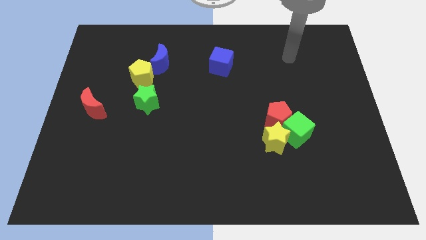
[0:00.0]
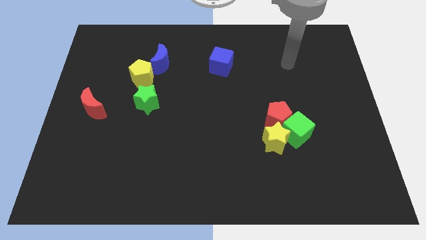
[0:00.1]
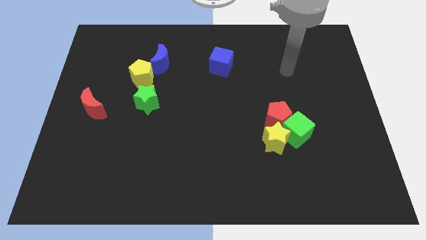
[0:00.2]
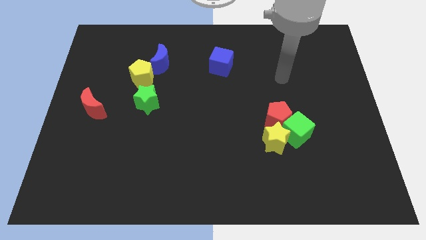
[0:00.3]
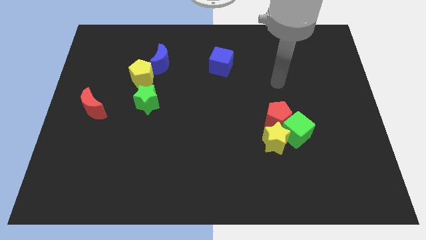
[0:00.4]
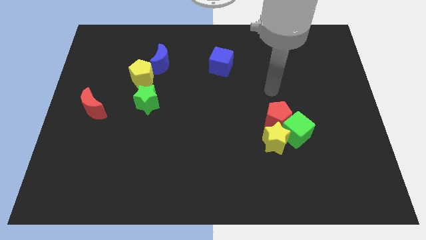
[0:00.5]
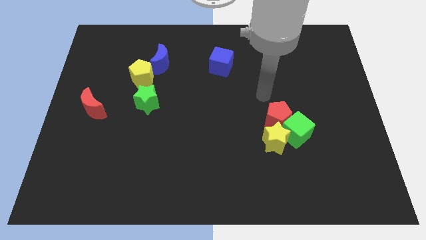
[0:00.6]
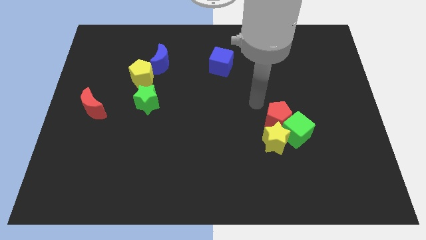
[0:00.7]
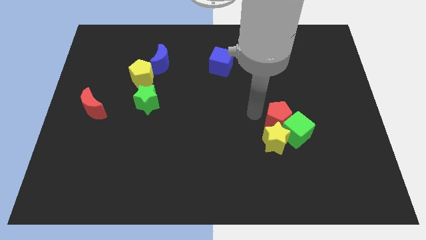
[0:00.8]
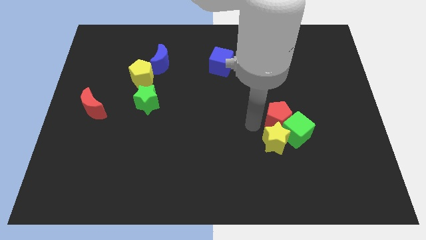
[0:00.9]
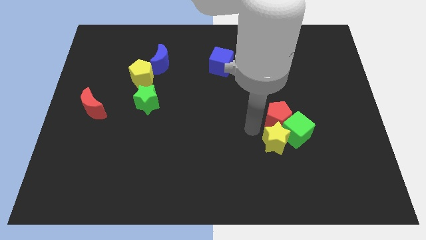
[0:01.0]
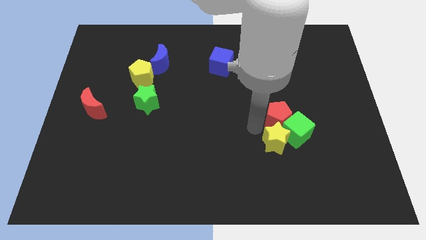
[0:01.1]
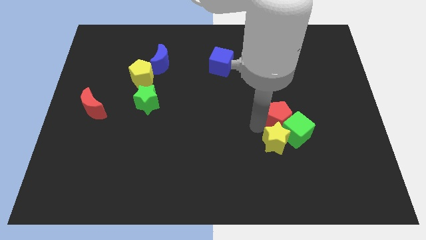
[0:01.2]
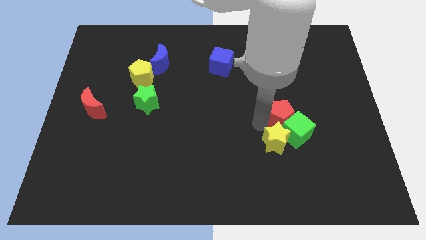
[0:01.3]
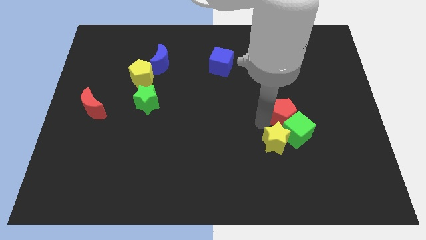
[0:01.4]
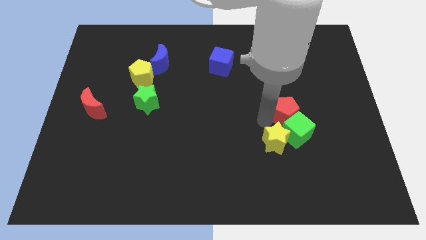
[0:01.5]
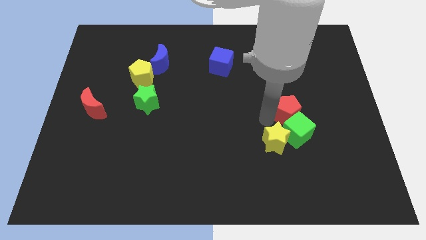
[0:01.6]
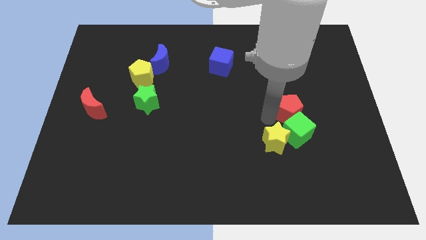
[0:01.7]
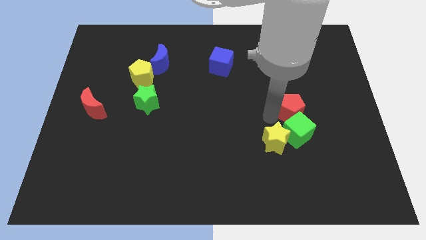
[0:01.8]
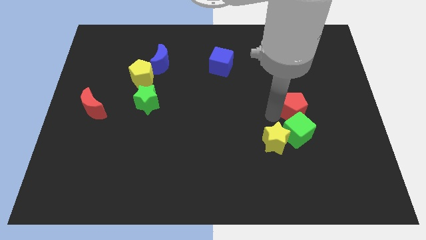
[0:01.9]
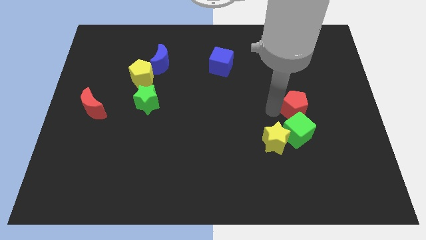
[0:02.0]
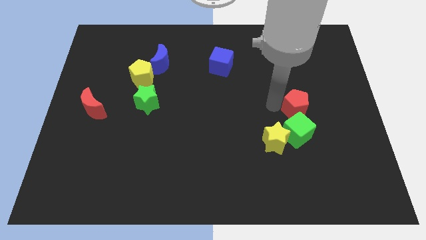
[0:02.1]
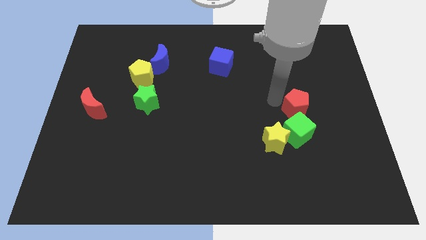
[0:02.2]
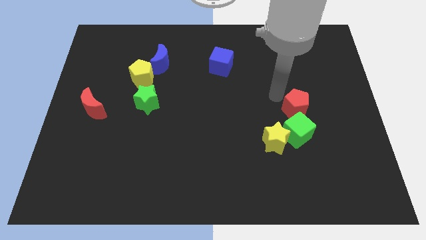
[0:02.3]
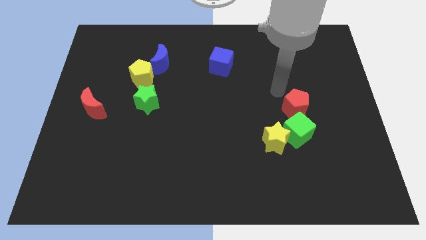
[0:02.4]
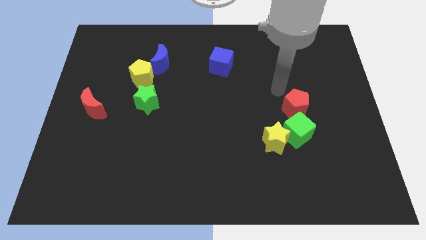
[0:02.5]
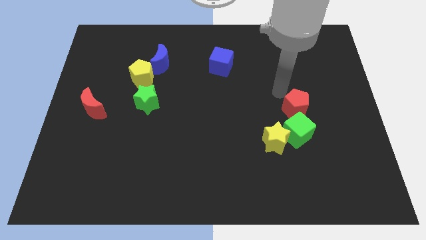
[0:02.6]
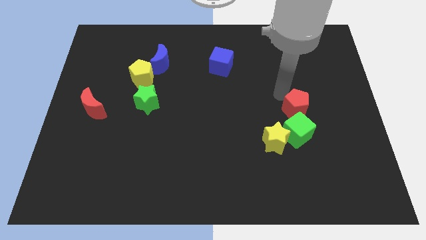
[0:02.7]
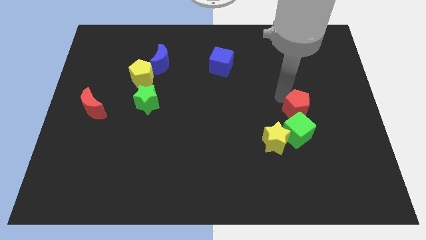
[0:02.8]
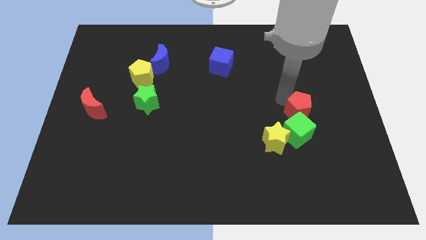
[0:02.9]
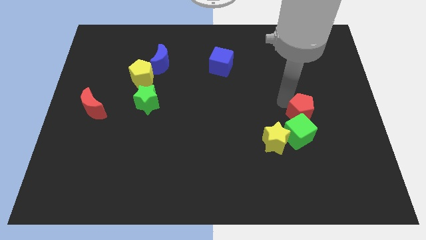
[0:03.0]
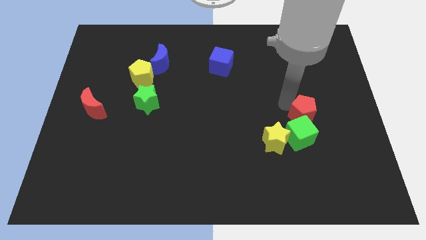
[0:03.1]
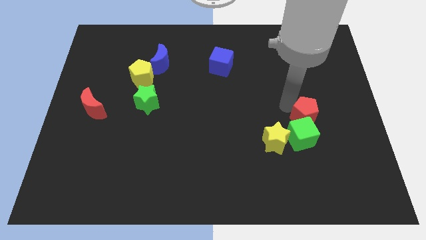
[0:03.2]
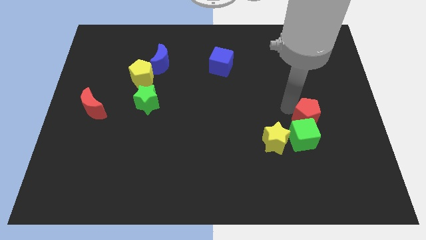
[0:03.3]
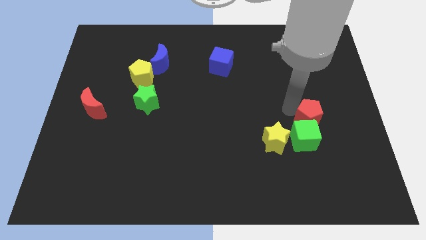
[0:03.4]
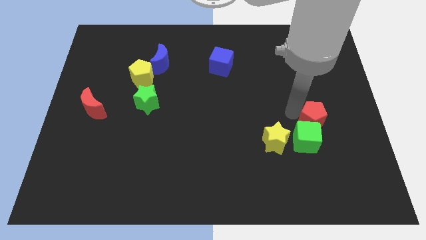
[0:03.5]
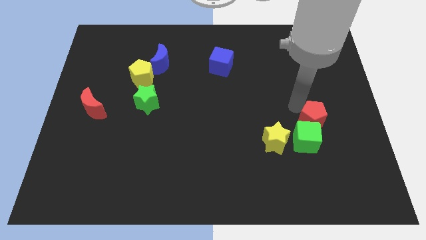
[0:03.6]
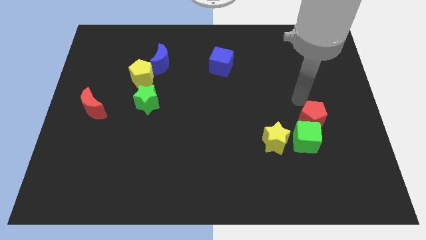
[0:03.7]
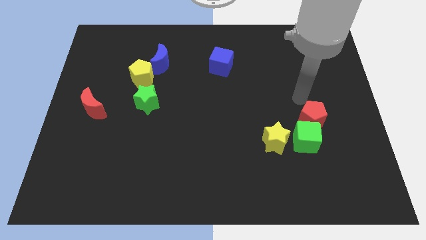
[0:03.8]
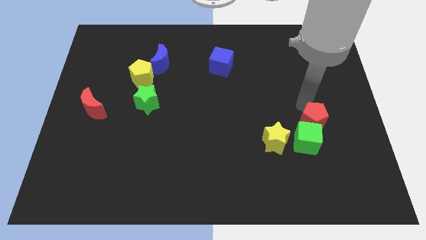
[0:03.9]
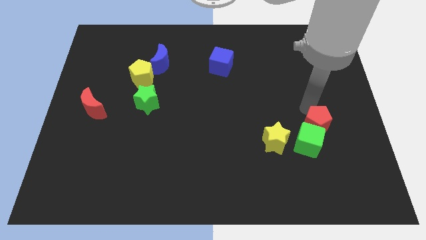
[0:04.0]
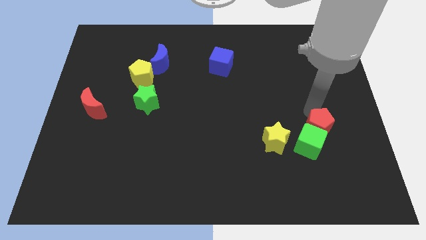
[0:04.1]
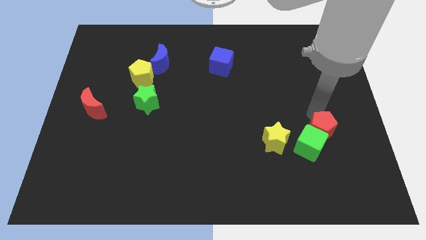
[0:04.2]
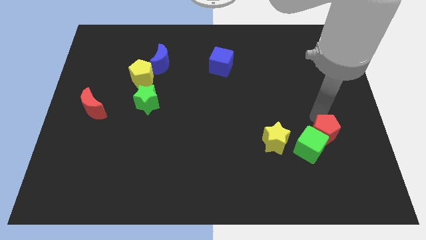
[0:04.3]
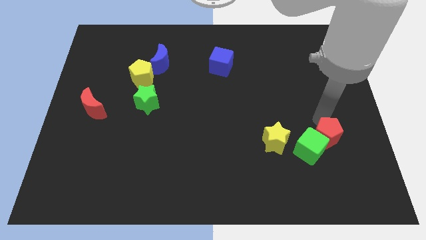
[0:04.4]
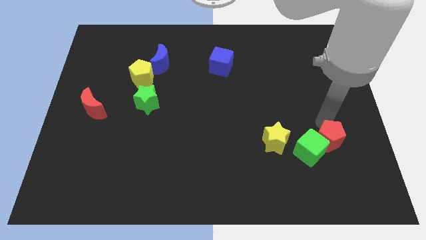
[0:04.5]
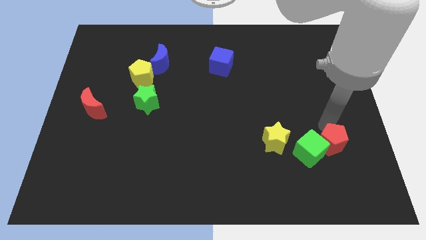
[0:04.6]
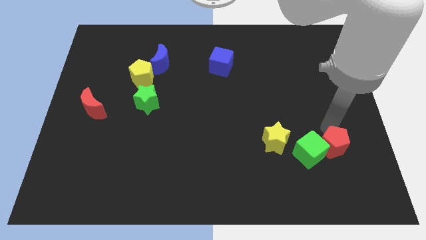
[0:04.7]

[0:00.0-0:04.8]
push the red pentagon diagonally down and to the right of the green cube

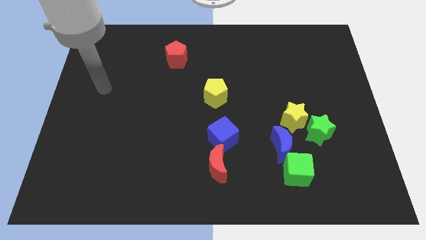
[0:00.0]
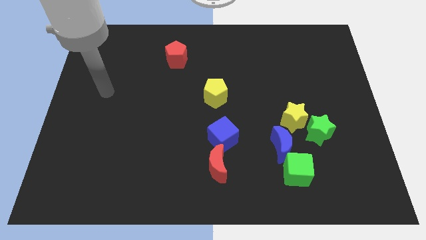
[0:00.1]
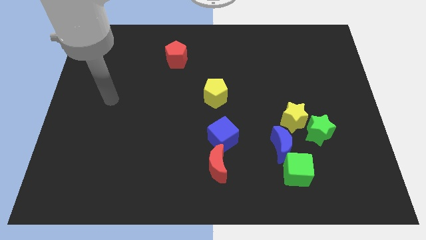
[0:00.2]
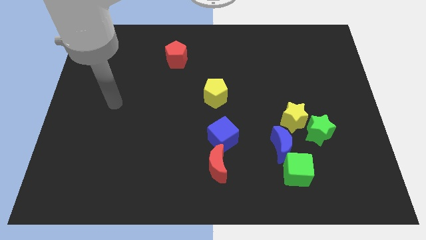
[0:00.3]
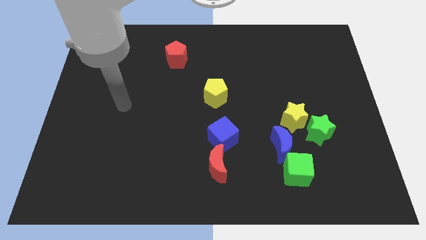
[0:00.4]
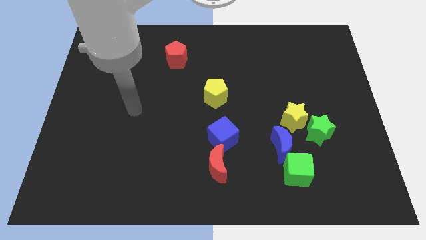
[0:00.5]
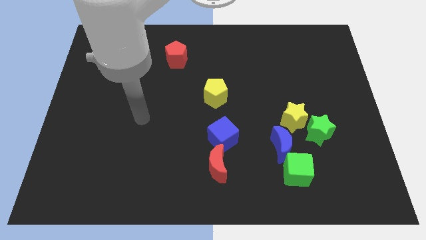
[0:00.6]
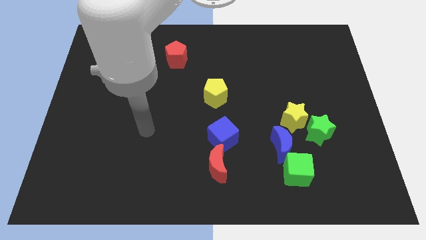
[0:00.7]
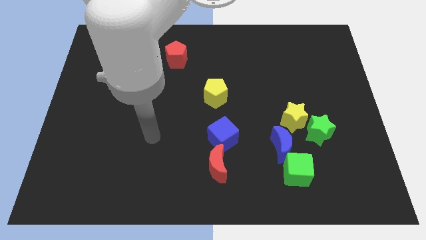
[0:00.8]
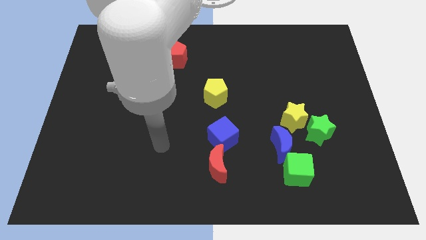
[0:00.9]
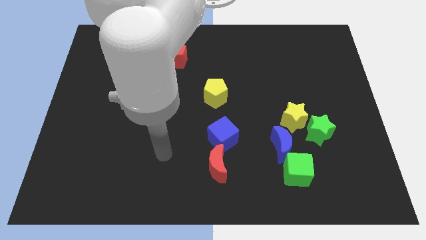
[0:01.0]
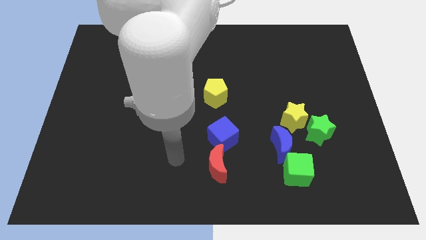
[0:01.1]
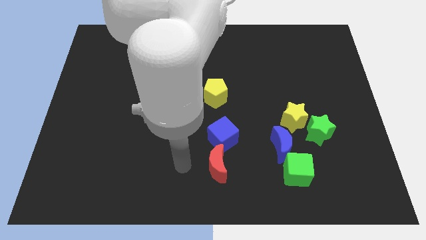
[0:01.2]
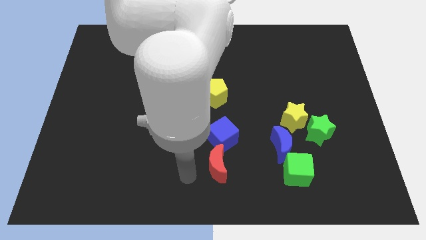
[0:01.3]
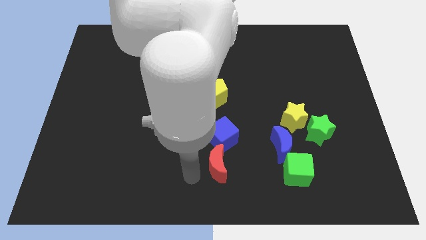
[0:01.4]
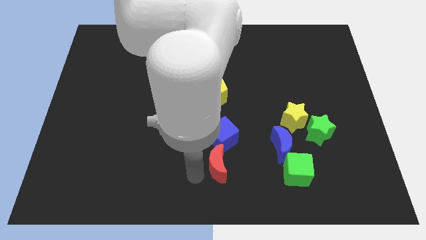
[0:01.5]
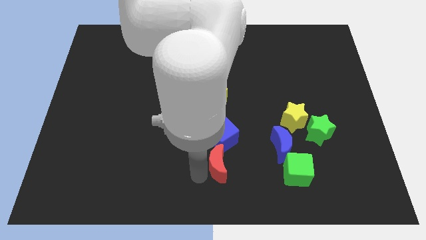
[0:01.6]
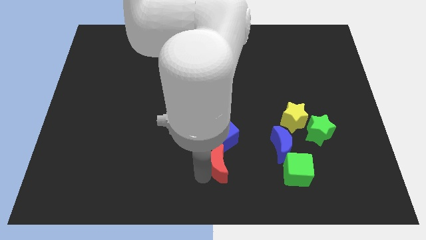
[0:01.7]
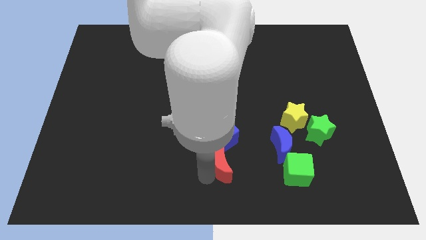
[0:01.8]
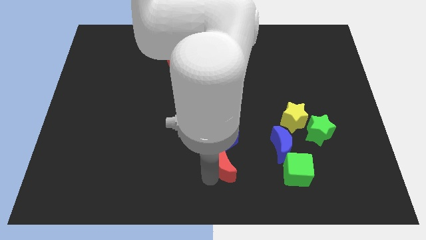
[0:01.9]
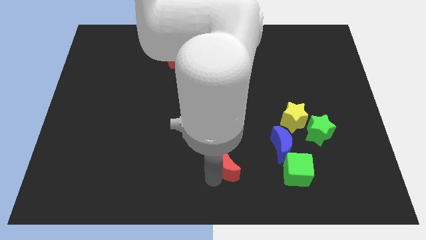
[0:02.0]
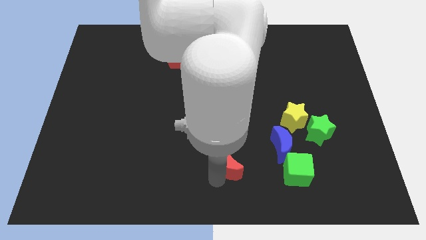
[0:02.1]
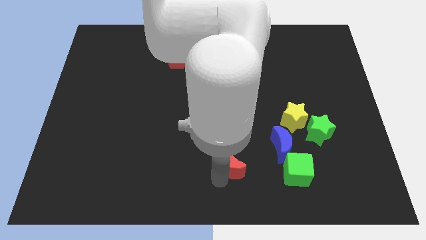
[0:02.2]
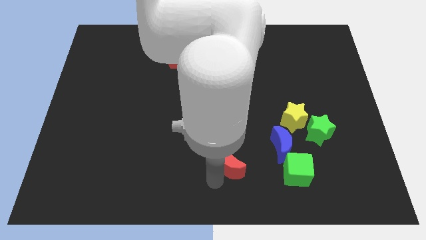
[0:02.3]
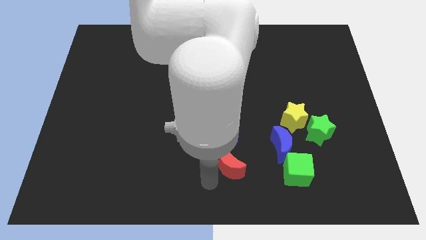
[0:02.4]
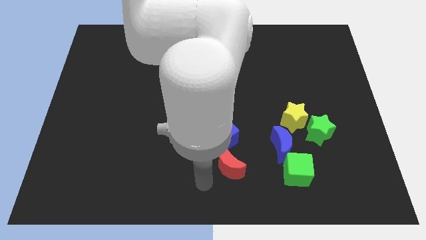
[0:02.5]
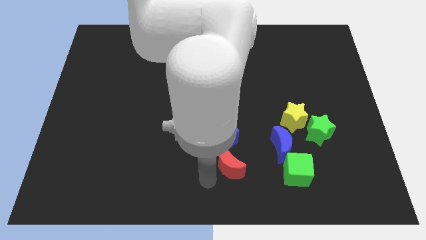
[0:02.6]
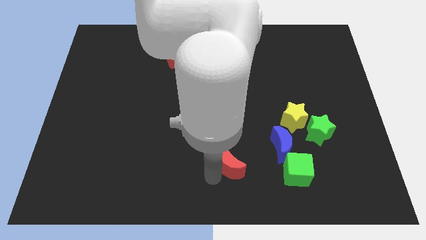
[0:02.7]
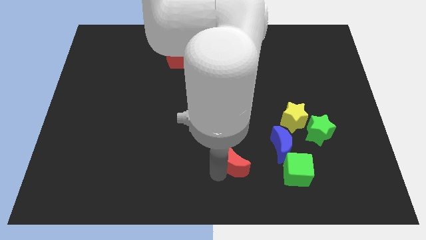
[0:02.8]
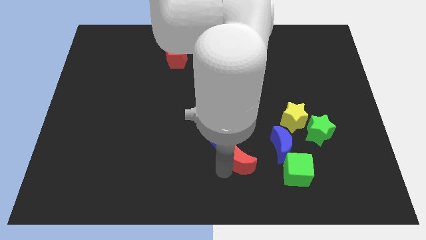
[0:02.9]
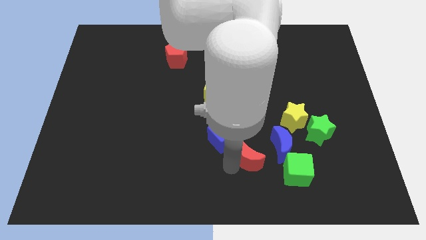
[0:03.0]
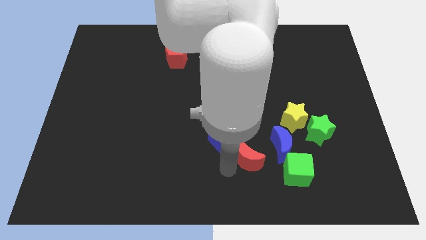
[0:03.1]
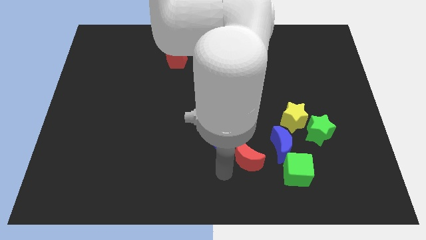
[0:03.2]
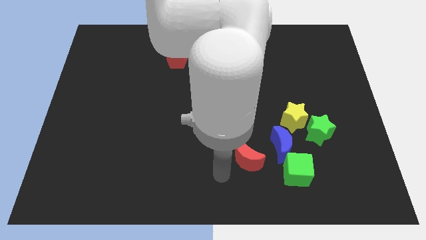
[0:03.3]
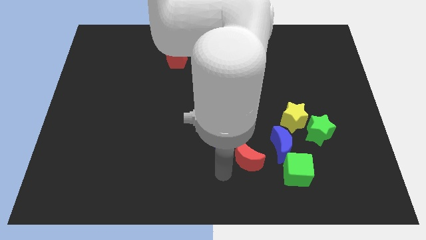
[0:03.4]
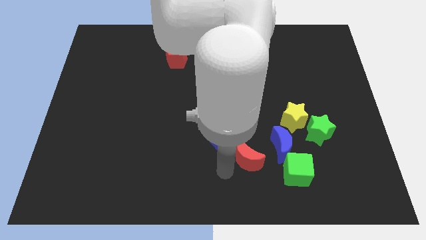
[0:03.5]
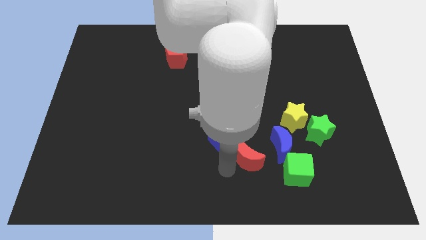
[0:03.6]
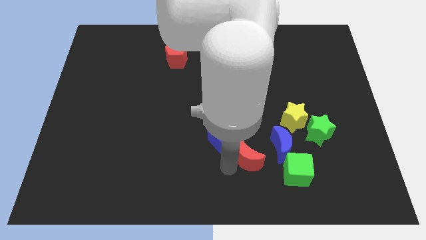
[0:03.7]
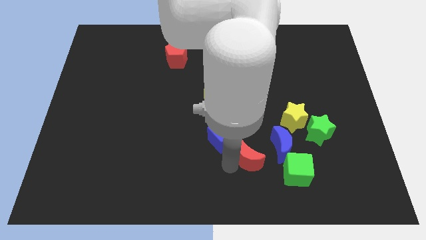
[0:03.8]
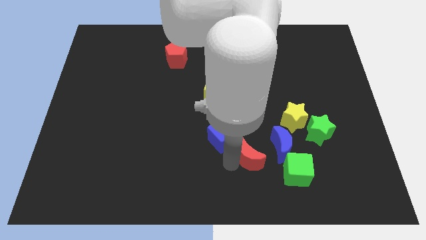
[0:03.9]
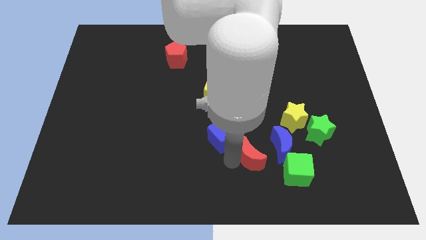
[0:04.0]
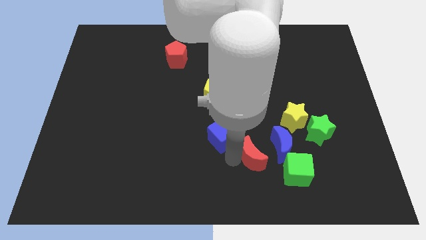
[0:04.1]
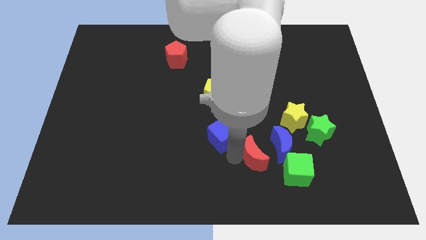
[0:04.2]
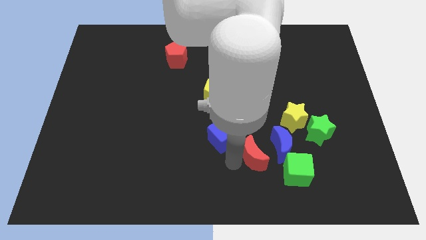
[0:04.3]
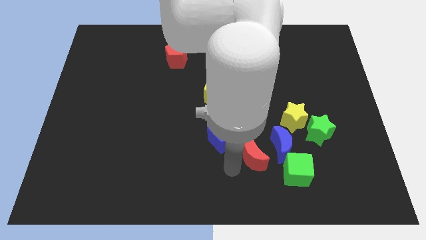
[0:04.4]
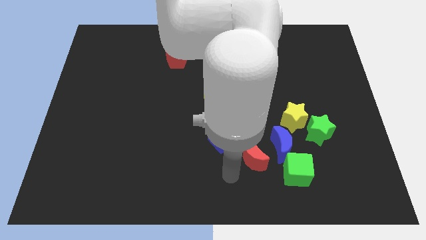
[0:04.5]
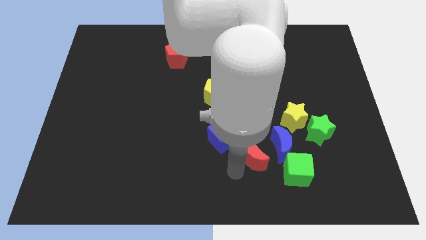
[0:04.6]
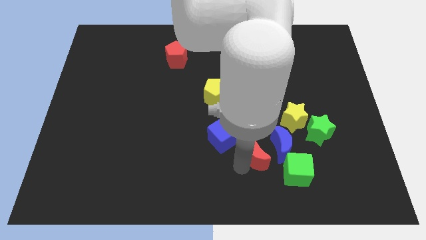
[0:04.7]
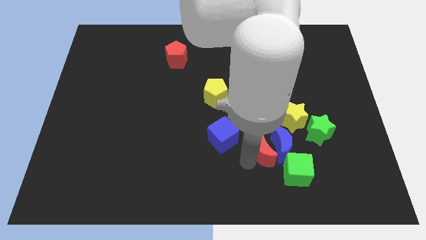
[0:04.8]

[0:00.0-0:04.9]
put the red moon to the bottom left side of the yellow star
